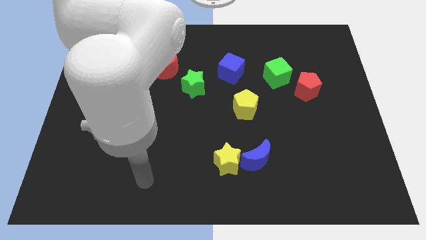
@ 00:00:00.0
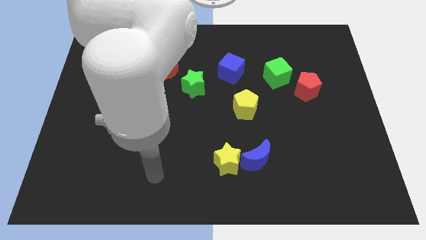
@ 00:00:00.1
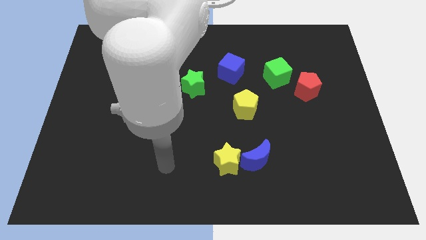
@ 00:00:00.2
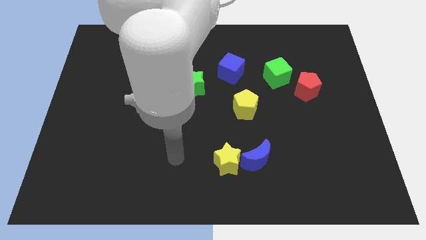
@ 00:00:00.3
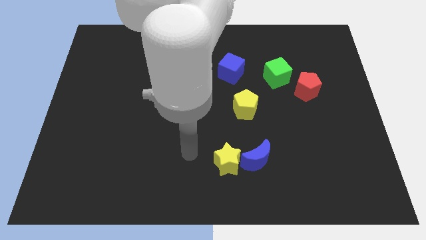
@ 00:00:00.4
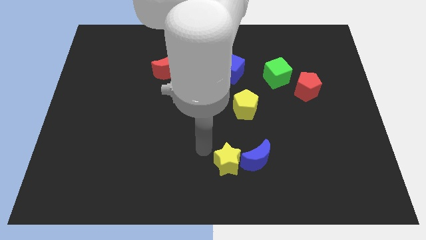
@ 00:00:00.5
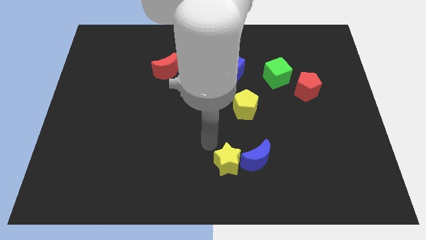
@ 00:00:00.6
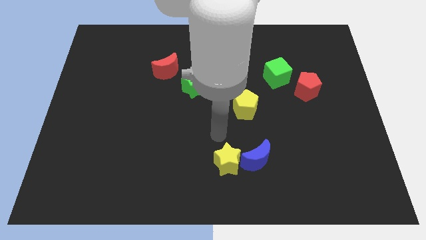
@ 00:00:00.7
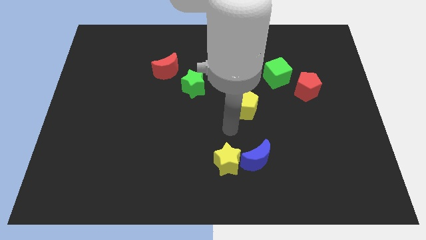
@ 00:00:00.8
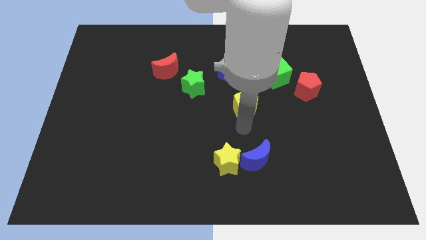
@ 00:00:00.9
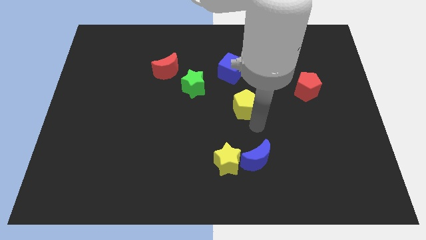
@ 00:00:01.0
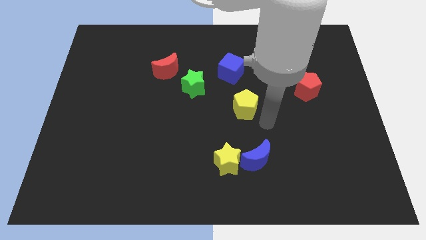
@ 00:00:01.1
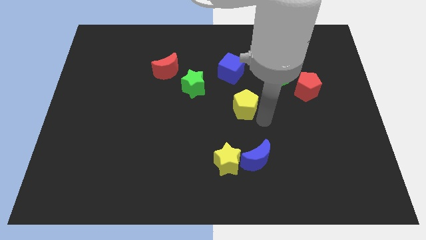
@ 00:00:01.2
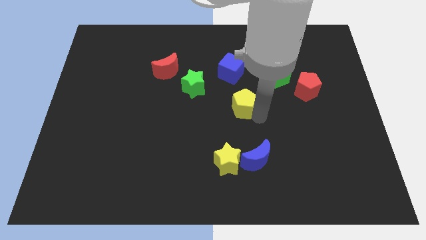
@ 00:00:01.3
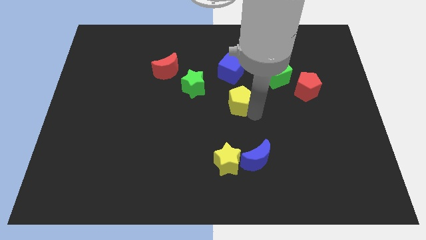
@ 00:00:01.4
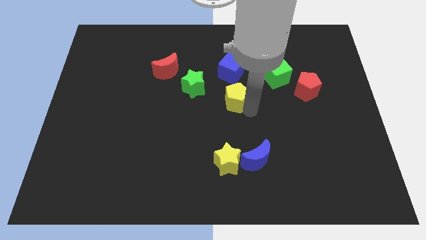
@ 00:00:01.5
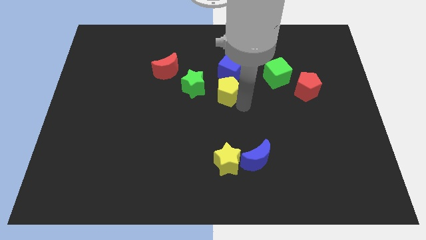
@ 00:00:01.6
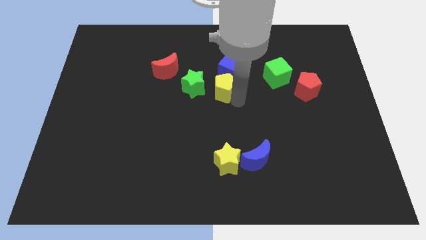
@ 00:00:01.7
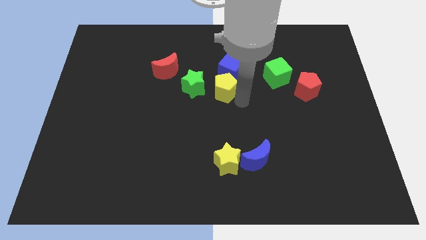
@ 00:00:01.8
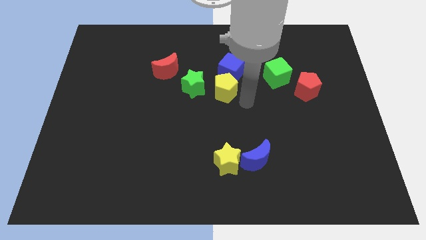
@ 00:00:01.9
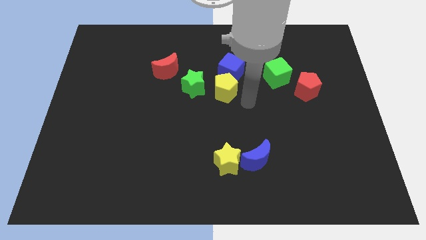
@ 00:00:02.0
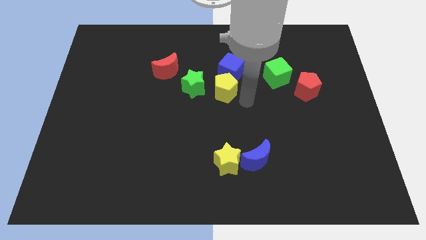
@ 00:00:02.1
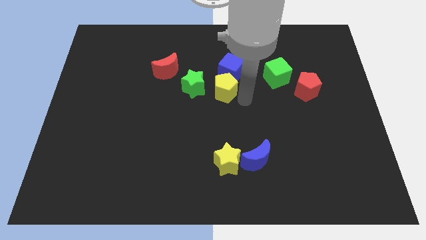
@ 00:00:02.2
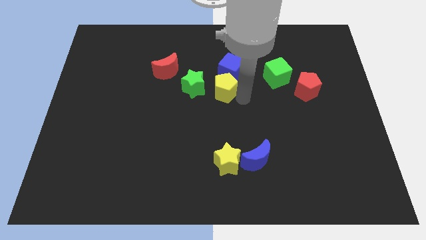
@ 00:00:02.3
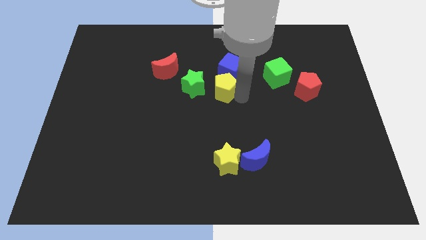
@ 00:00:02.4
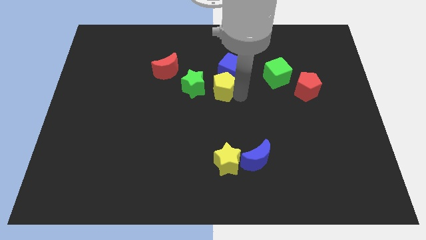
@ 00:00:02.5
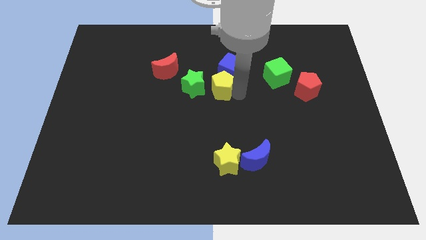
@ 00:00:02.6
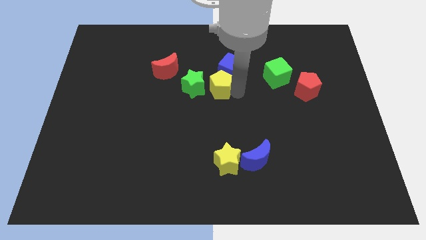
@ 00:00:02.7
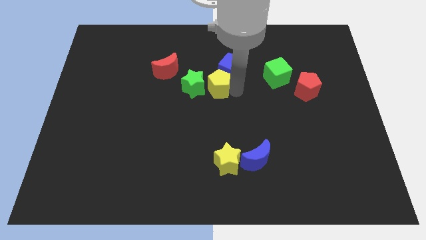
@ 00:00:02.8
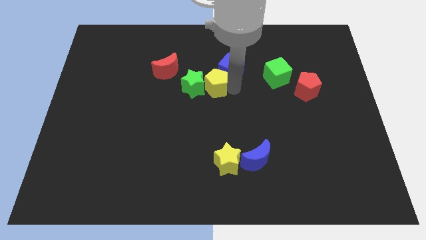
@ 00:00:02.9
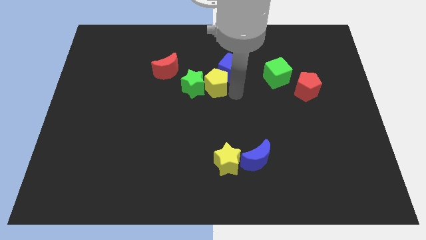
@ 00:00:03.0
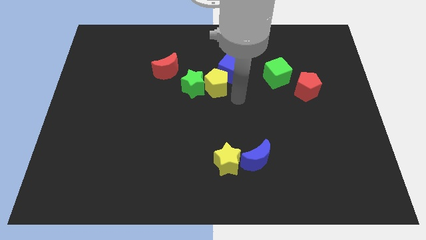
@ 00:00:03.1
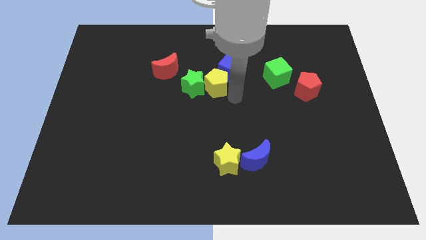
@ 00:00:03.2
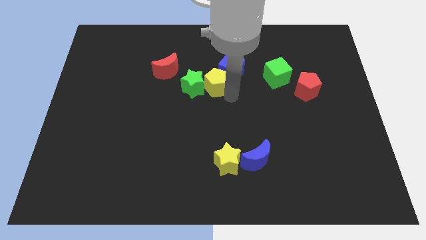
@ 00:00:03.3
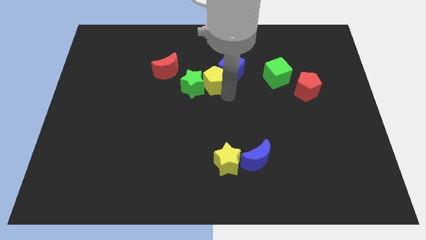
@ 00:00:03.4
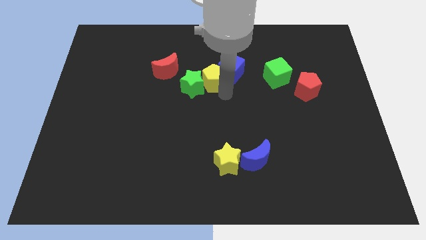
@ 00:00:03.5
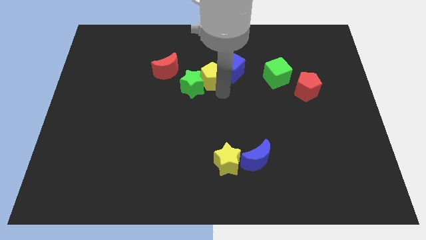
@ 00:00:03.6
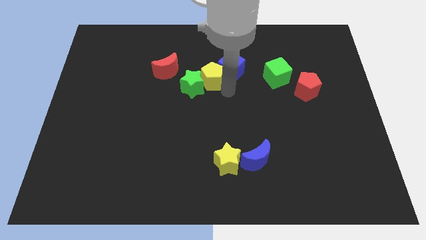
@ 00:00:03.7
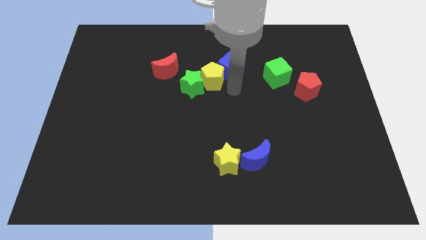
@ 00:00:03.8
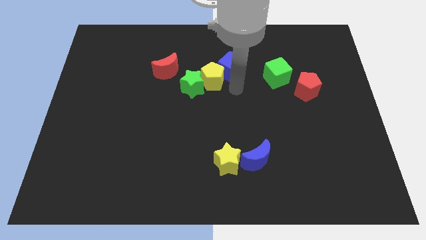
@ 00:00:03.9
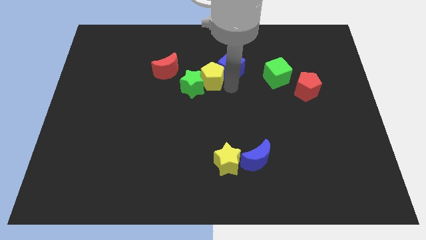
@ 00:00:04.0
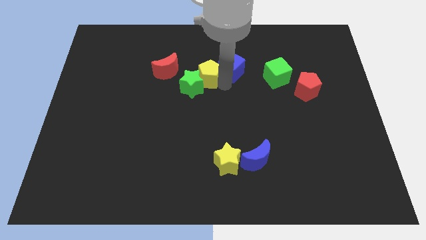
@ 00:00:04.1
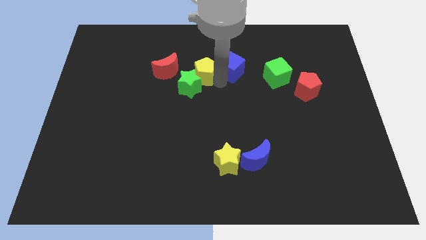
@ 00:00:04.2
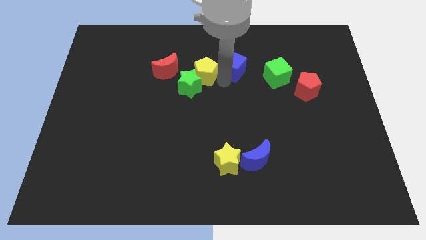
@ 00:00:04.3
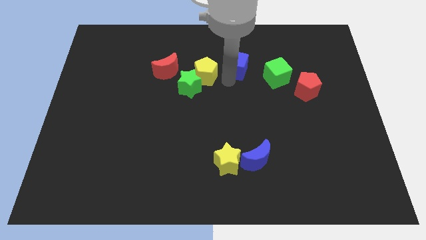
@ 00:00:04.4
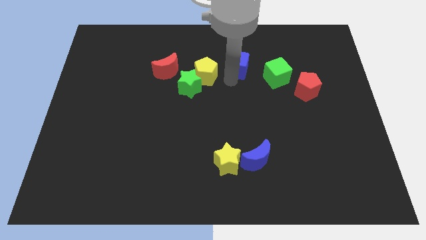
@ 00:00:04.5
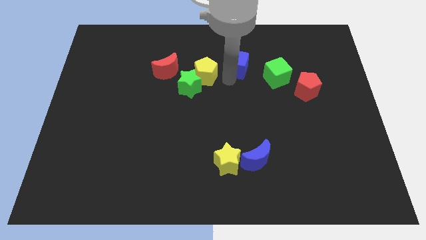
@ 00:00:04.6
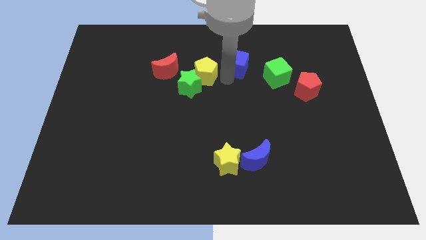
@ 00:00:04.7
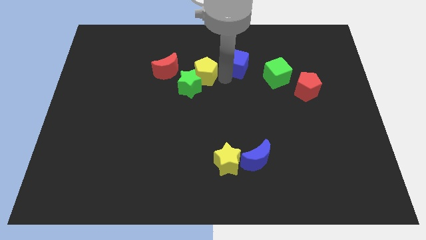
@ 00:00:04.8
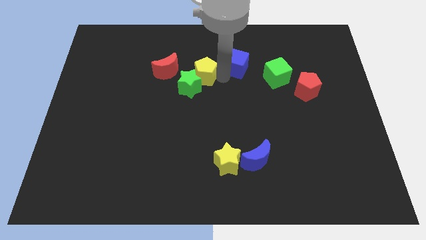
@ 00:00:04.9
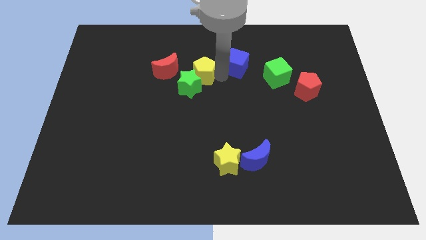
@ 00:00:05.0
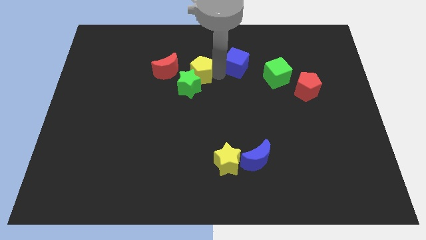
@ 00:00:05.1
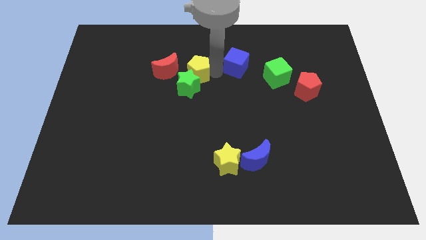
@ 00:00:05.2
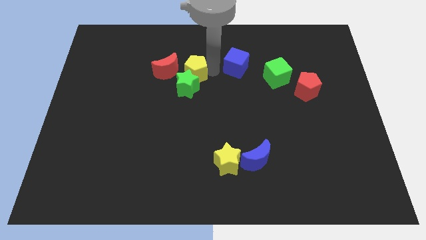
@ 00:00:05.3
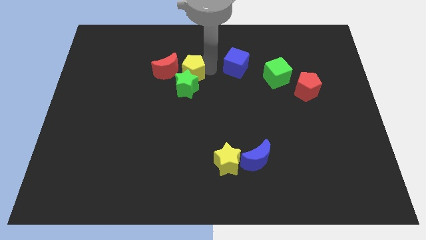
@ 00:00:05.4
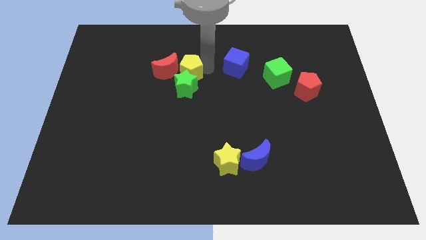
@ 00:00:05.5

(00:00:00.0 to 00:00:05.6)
slide the yellow pentagon next to the red moon

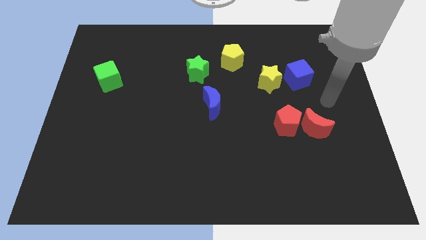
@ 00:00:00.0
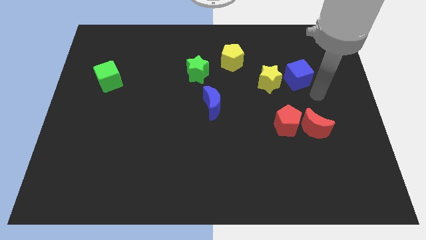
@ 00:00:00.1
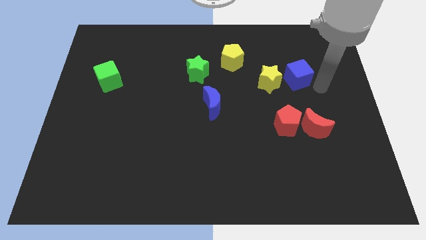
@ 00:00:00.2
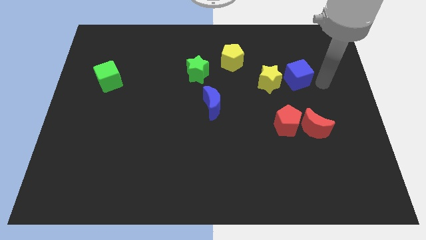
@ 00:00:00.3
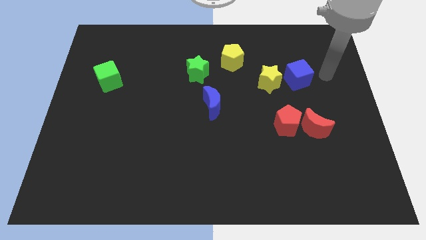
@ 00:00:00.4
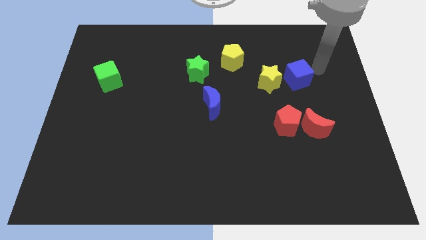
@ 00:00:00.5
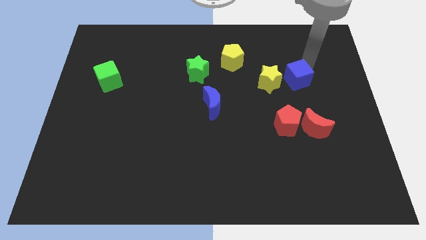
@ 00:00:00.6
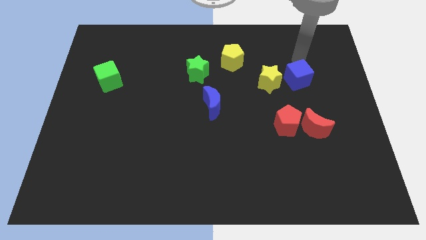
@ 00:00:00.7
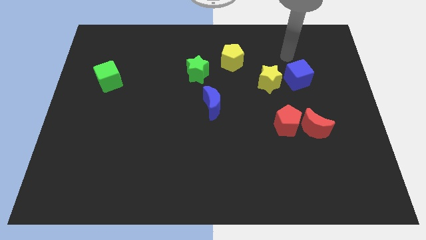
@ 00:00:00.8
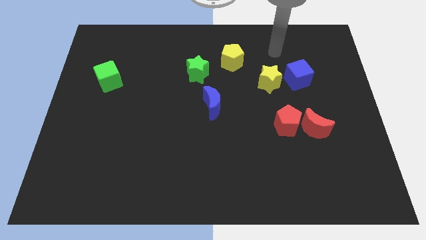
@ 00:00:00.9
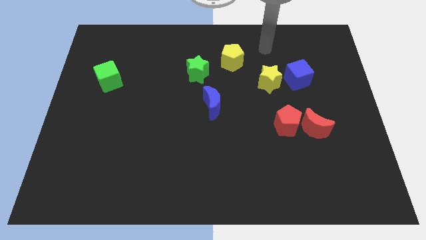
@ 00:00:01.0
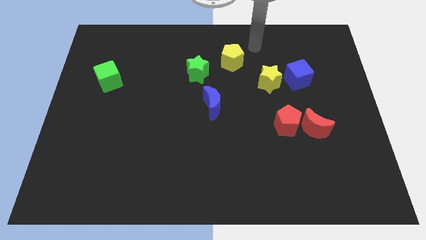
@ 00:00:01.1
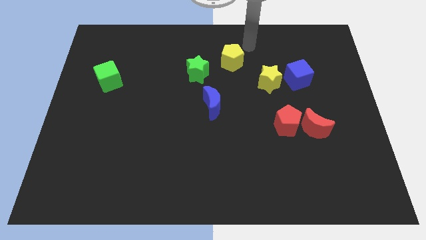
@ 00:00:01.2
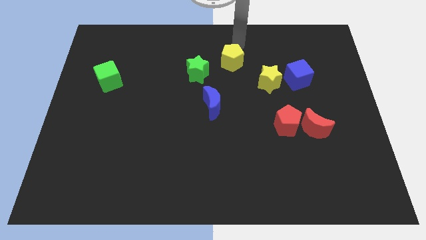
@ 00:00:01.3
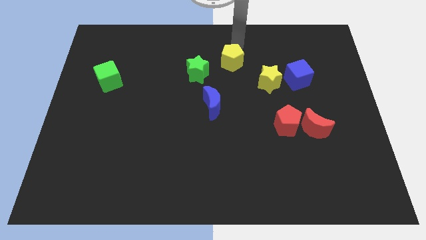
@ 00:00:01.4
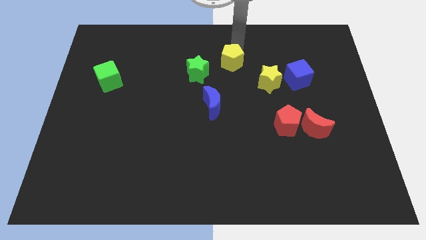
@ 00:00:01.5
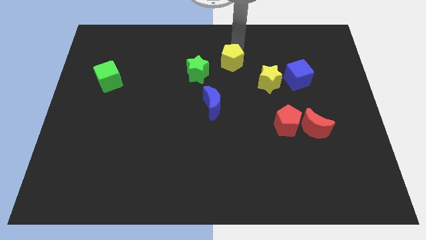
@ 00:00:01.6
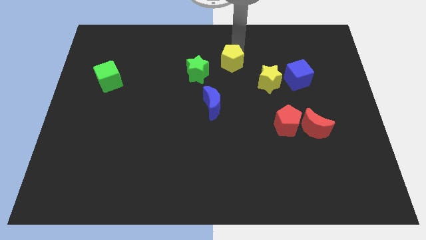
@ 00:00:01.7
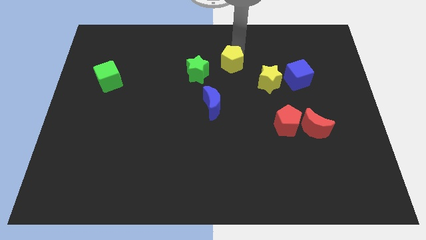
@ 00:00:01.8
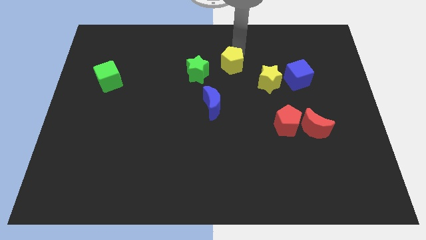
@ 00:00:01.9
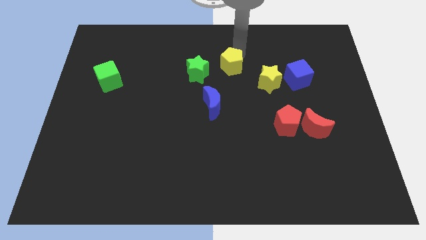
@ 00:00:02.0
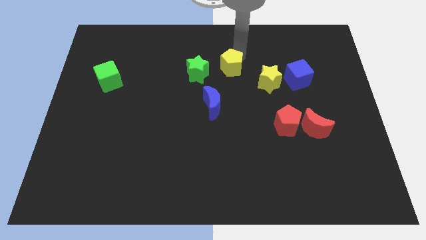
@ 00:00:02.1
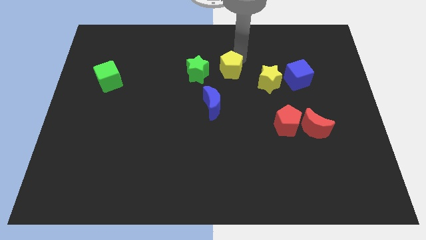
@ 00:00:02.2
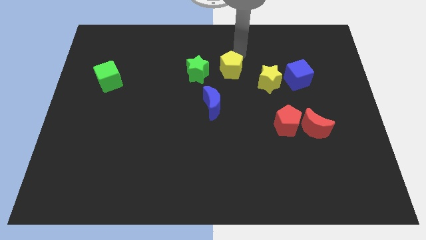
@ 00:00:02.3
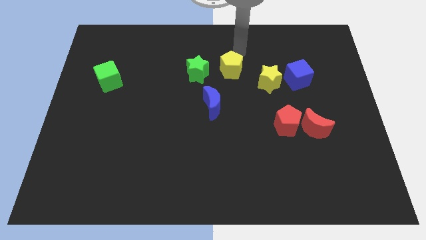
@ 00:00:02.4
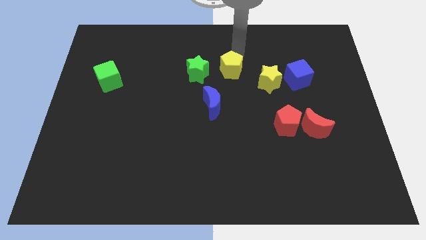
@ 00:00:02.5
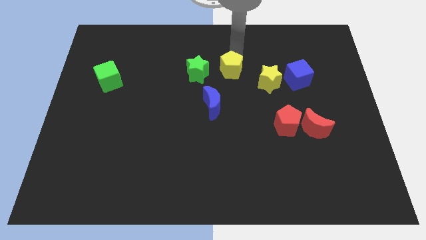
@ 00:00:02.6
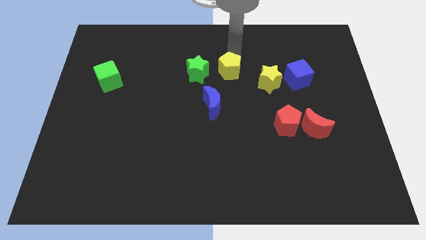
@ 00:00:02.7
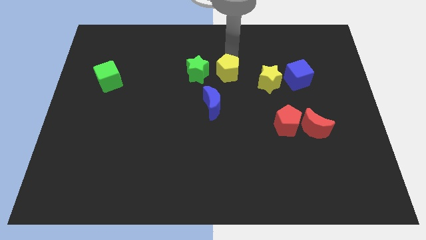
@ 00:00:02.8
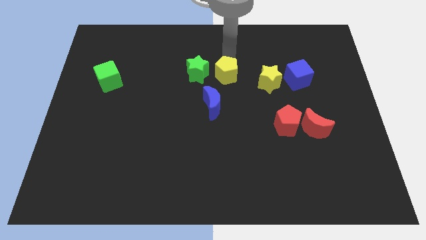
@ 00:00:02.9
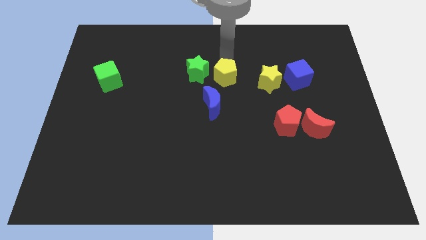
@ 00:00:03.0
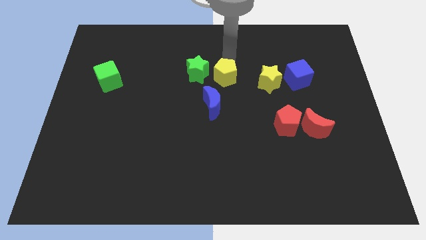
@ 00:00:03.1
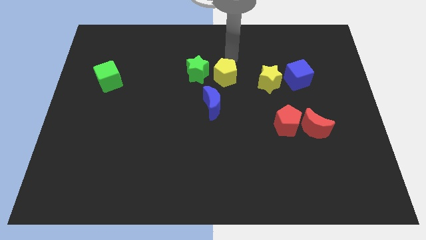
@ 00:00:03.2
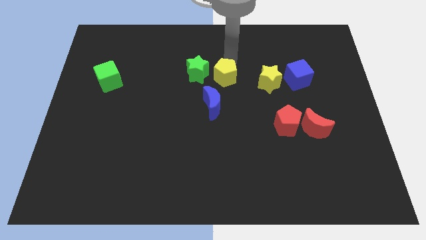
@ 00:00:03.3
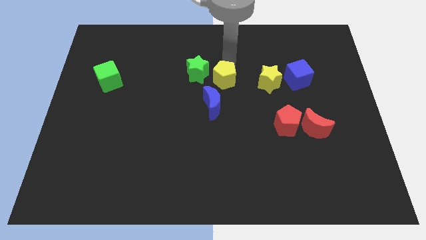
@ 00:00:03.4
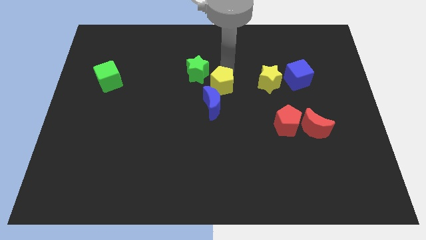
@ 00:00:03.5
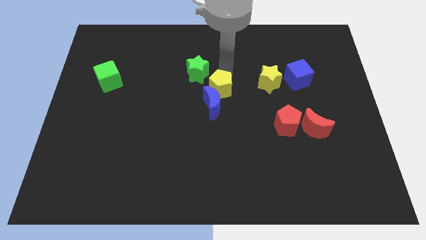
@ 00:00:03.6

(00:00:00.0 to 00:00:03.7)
slide the yellow pentagon to the blue moon
